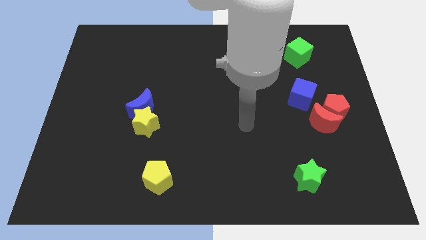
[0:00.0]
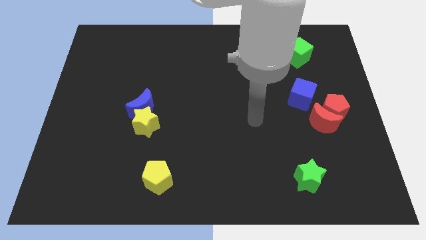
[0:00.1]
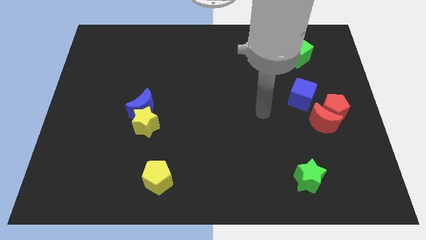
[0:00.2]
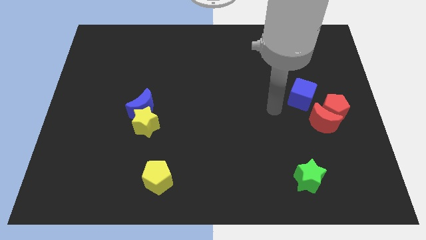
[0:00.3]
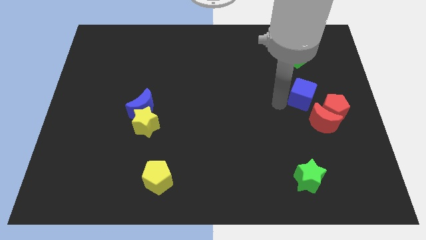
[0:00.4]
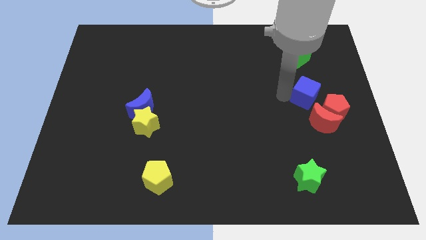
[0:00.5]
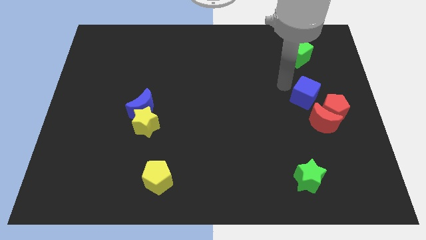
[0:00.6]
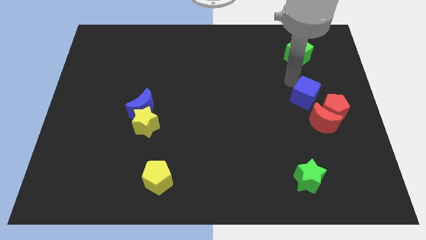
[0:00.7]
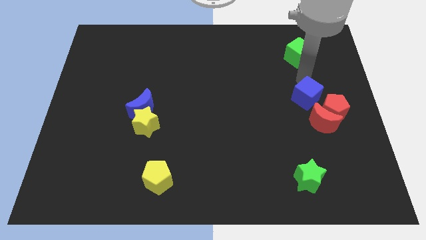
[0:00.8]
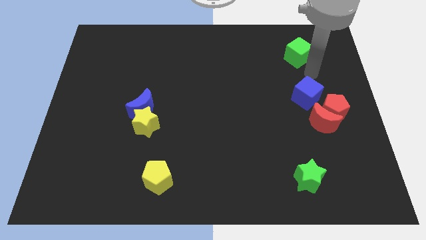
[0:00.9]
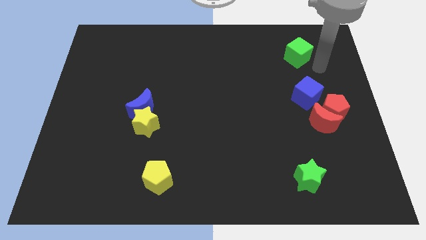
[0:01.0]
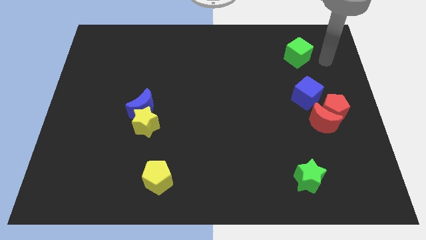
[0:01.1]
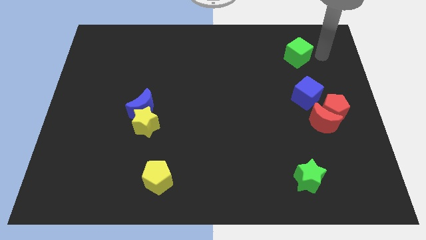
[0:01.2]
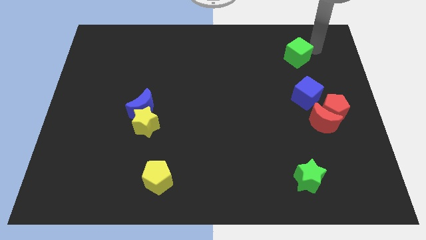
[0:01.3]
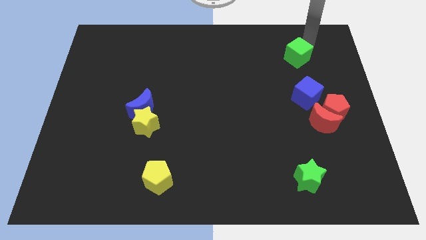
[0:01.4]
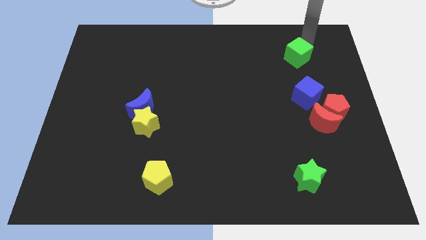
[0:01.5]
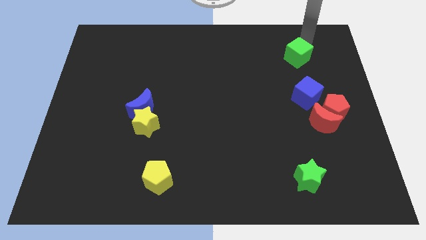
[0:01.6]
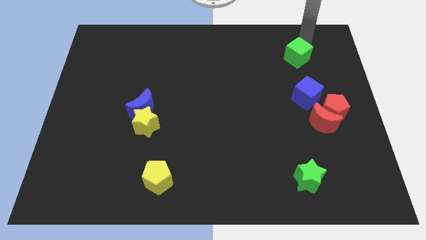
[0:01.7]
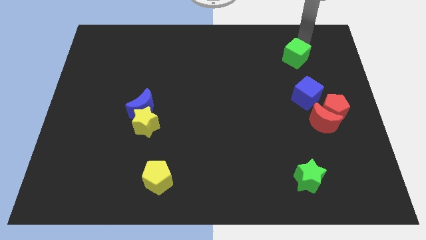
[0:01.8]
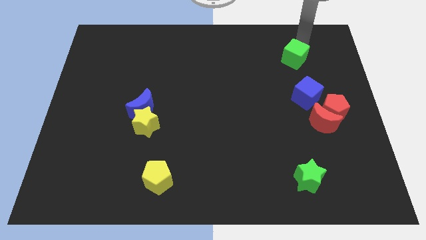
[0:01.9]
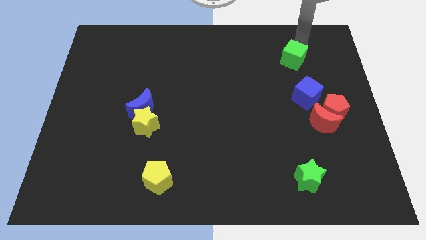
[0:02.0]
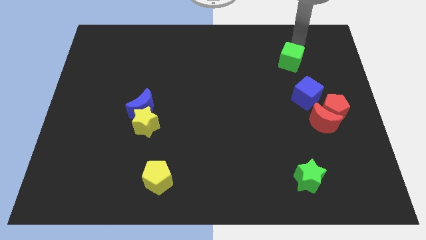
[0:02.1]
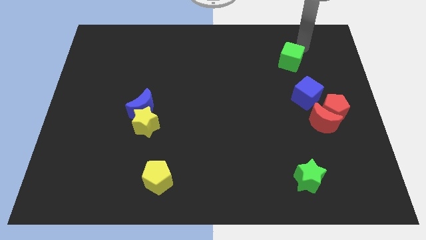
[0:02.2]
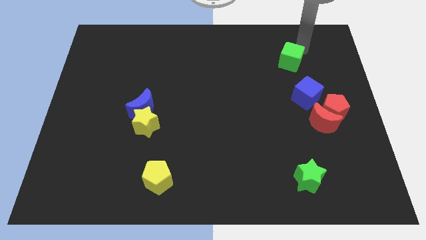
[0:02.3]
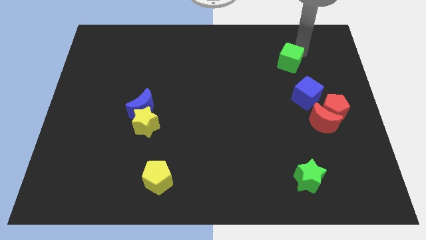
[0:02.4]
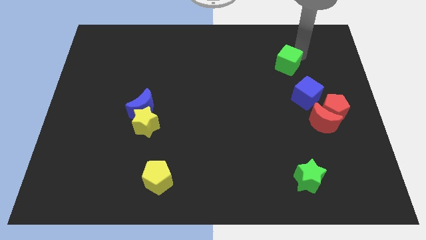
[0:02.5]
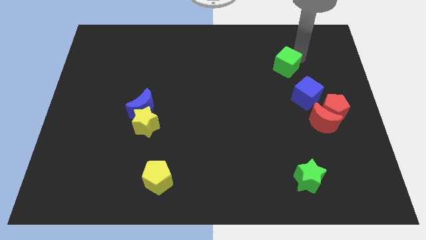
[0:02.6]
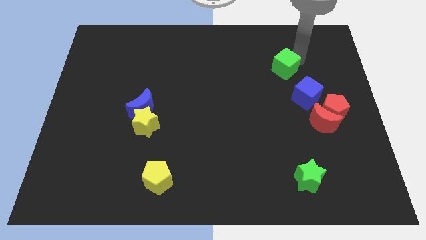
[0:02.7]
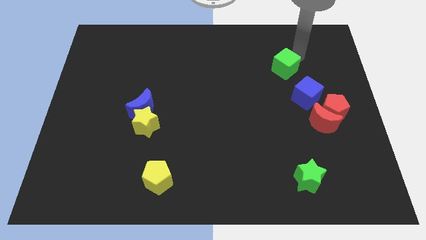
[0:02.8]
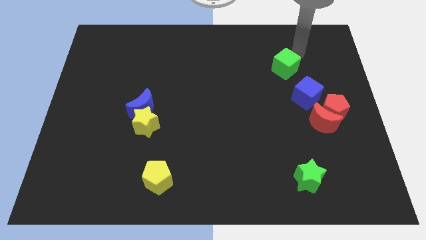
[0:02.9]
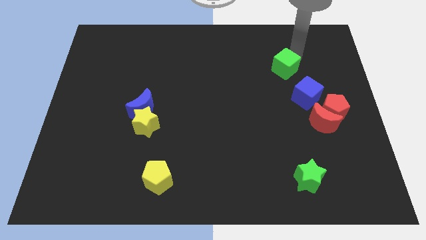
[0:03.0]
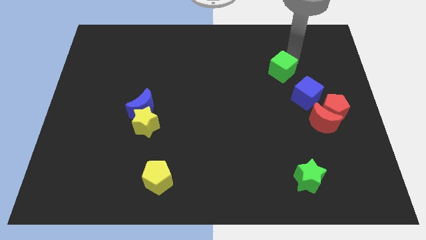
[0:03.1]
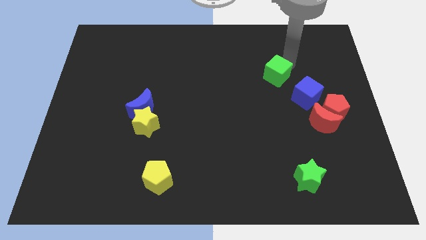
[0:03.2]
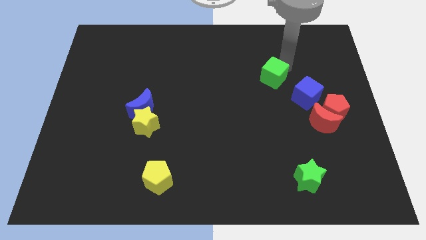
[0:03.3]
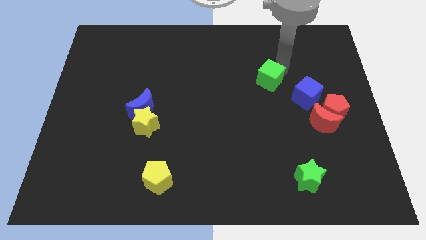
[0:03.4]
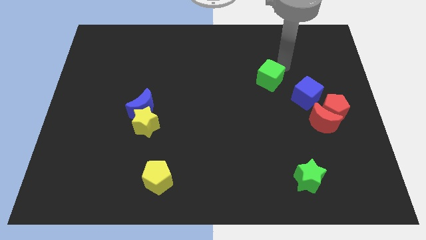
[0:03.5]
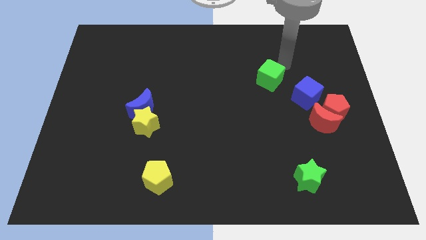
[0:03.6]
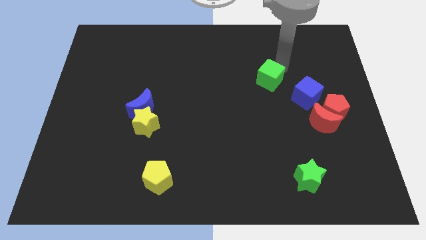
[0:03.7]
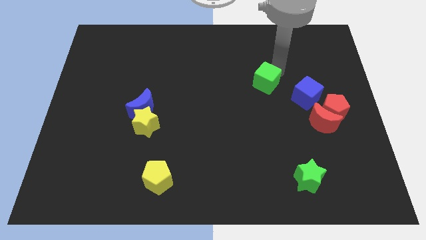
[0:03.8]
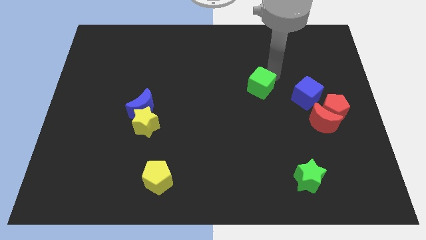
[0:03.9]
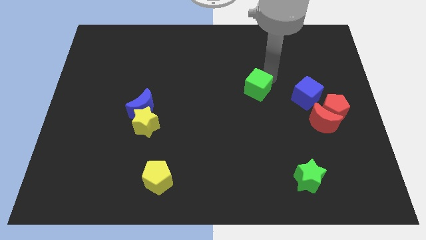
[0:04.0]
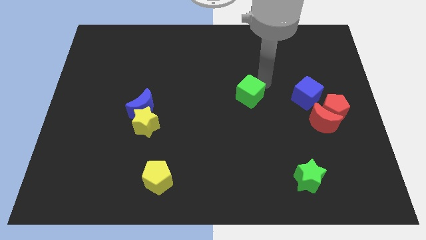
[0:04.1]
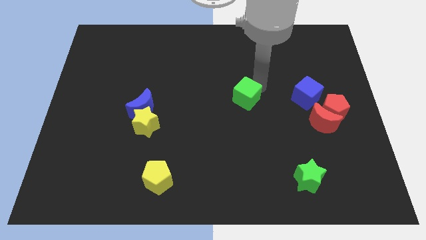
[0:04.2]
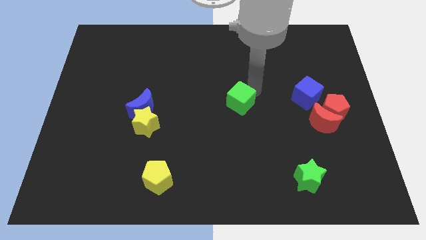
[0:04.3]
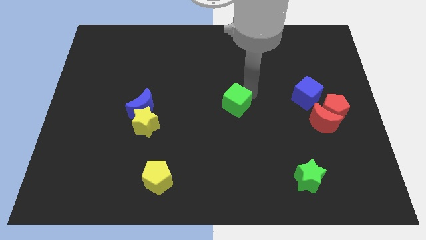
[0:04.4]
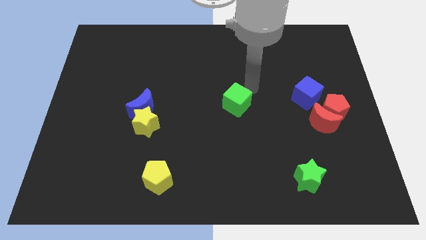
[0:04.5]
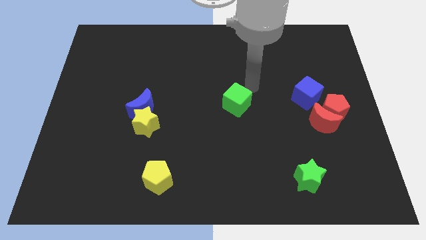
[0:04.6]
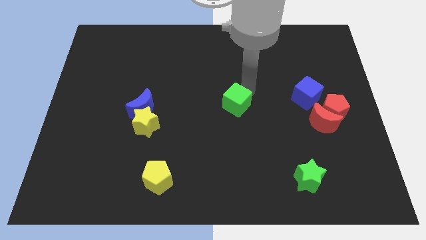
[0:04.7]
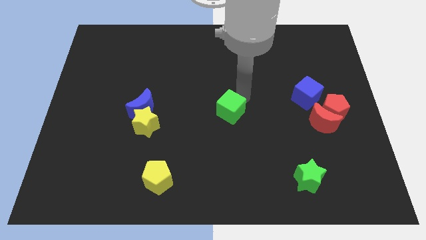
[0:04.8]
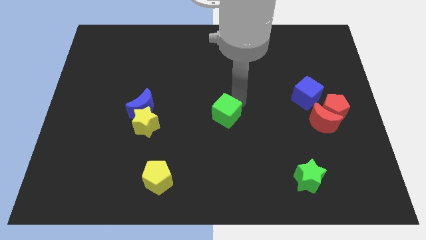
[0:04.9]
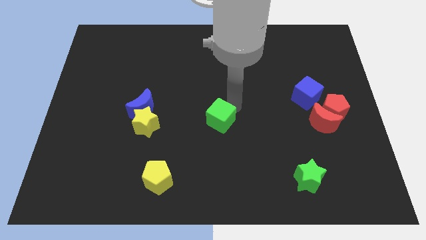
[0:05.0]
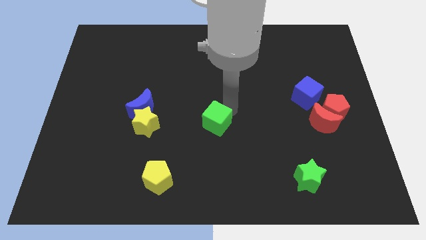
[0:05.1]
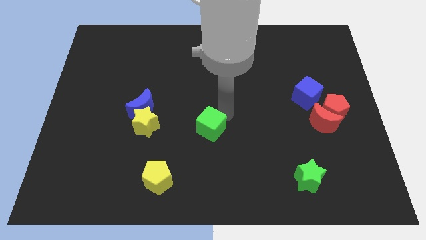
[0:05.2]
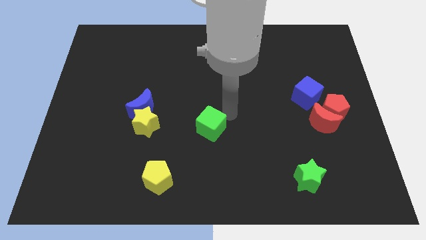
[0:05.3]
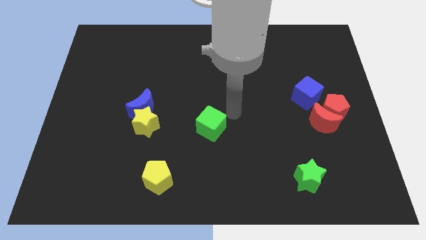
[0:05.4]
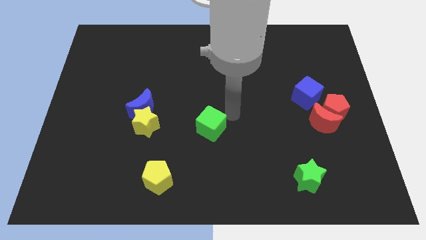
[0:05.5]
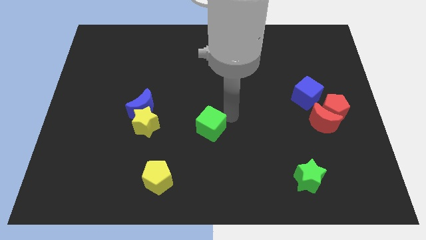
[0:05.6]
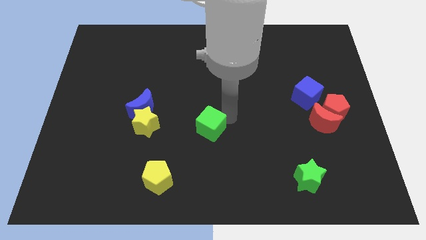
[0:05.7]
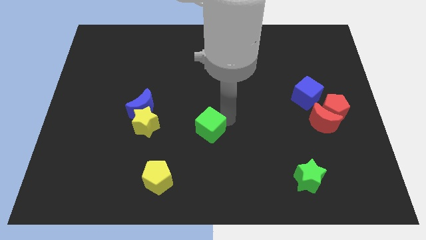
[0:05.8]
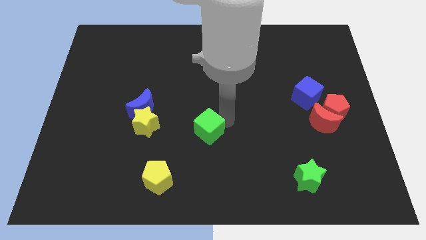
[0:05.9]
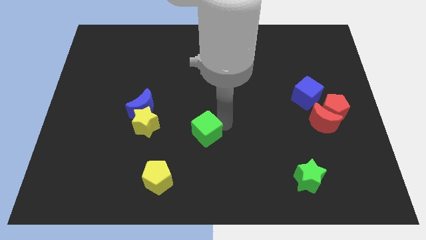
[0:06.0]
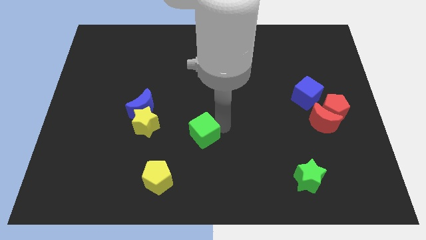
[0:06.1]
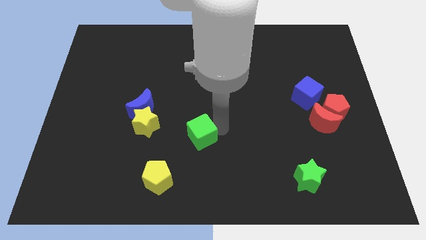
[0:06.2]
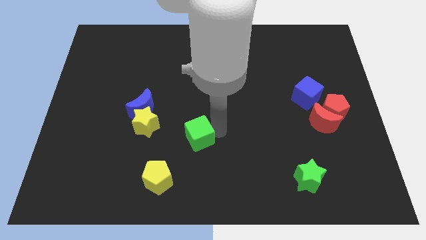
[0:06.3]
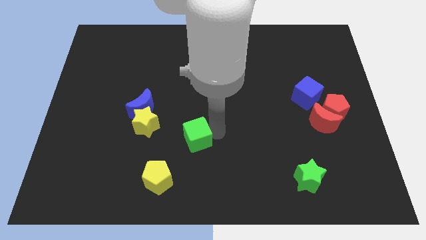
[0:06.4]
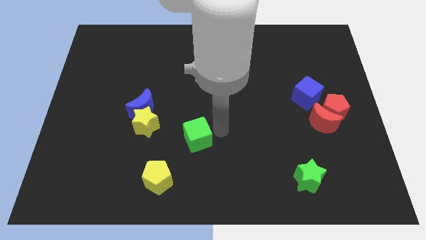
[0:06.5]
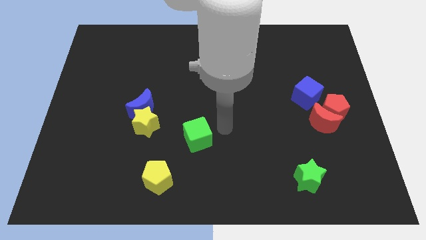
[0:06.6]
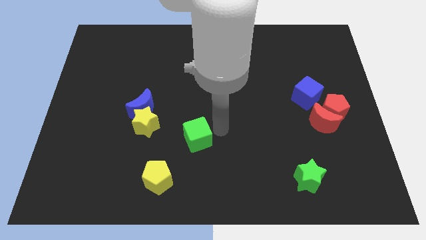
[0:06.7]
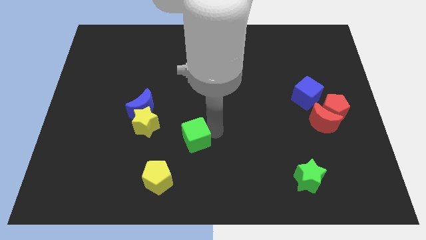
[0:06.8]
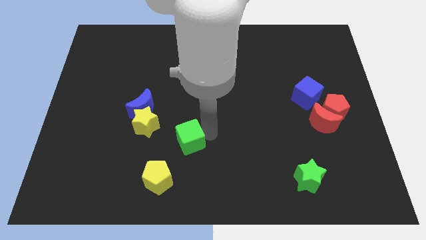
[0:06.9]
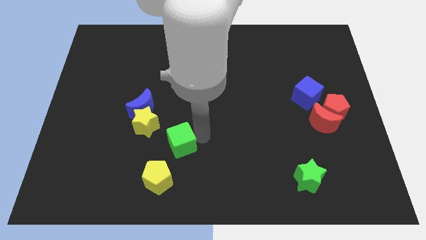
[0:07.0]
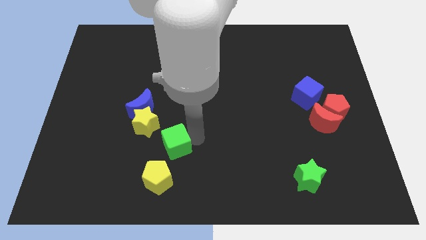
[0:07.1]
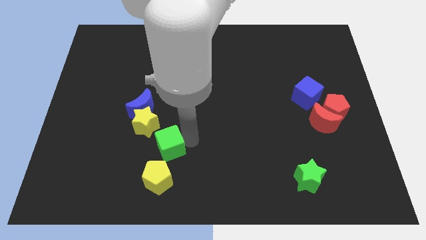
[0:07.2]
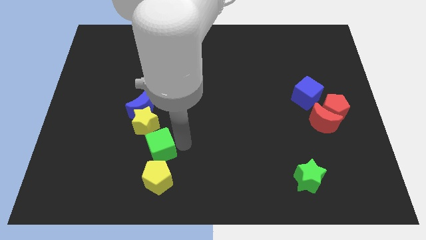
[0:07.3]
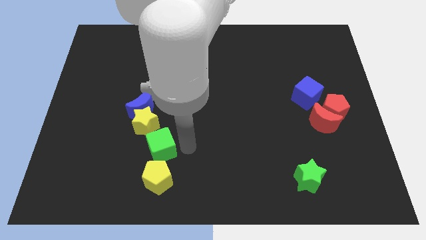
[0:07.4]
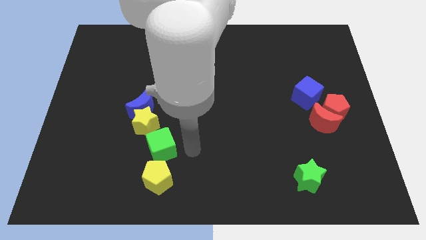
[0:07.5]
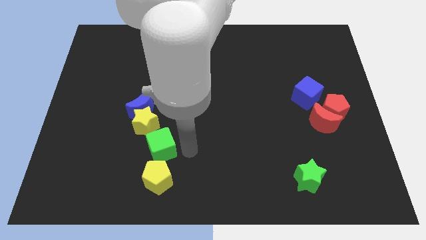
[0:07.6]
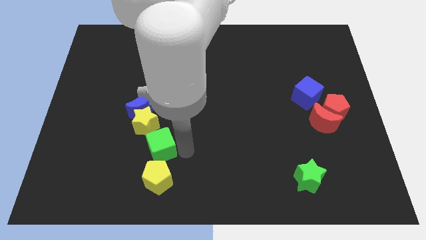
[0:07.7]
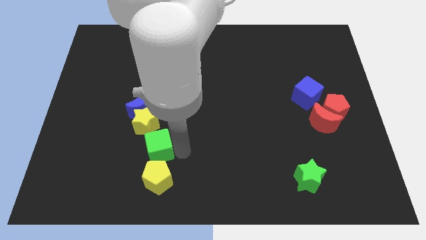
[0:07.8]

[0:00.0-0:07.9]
push the green cube below the blue moon
